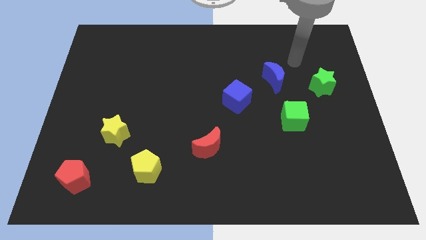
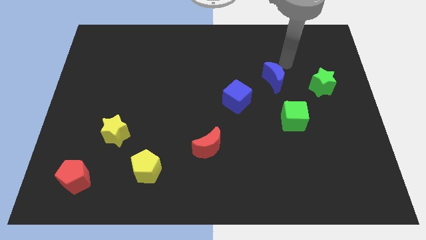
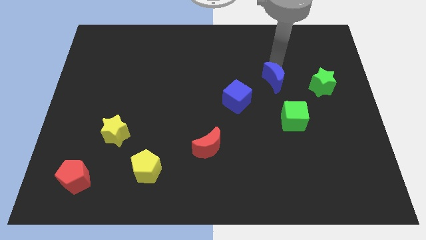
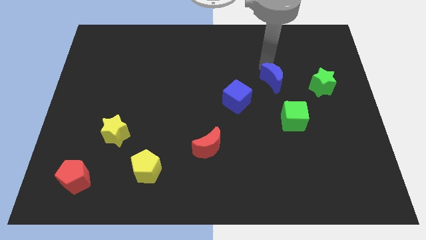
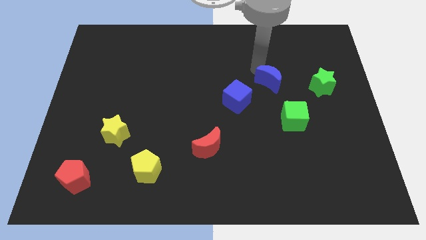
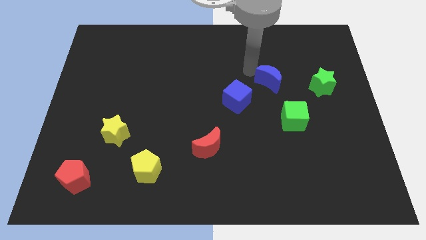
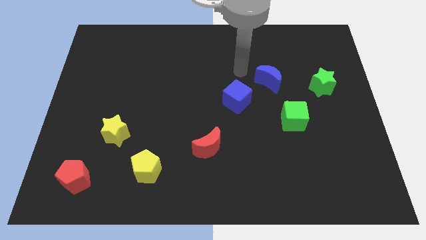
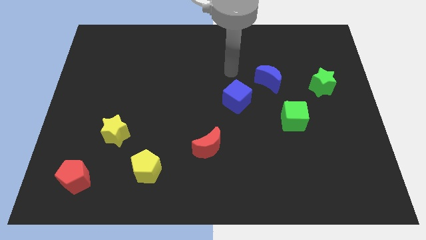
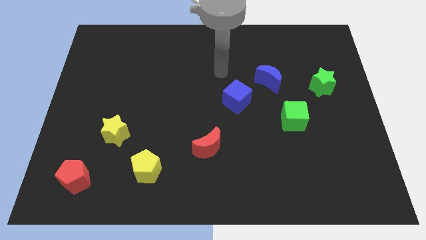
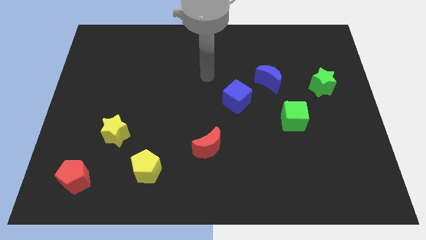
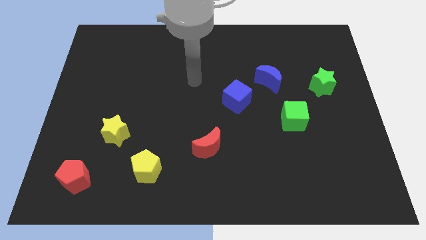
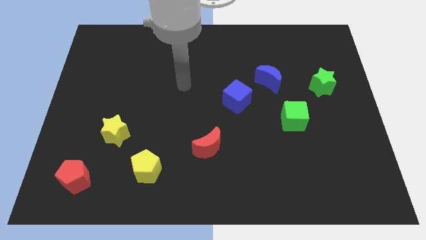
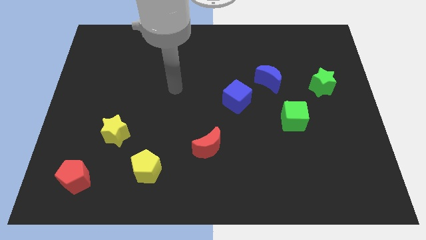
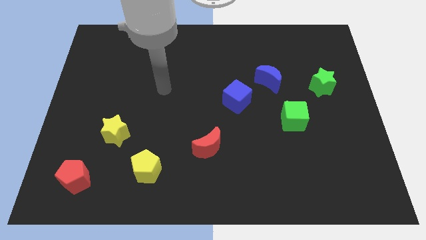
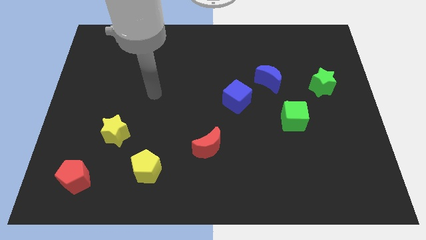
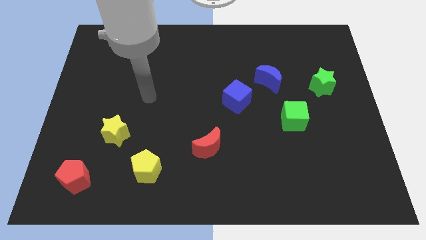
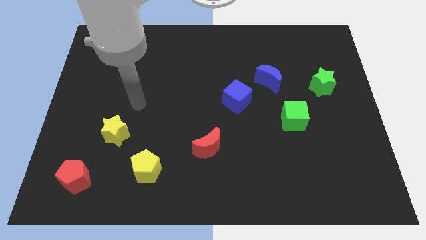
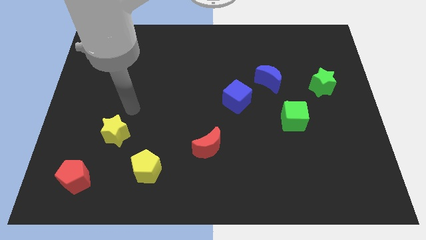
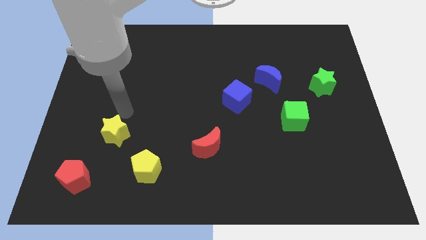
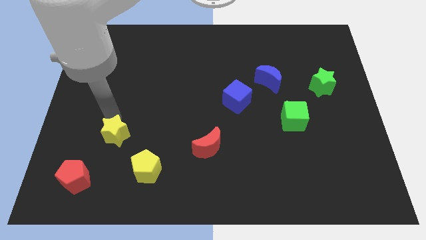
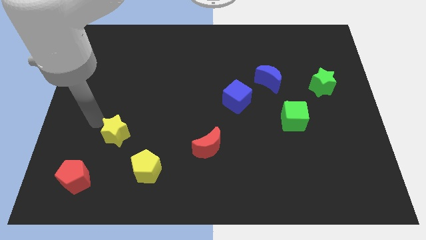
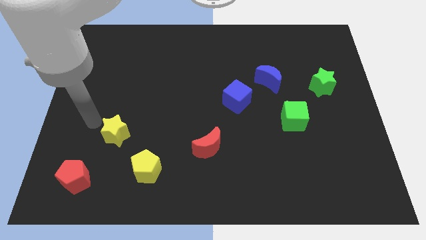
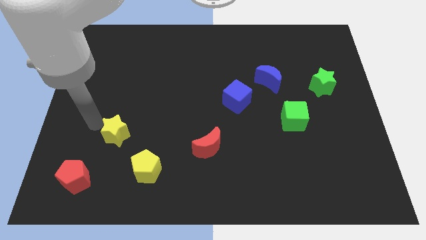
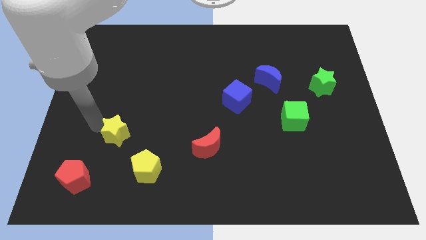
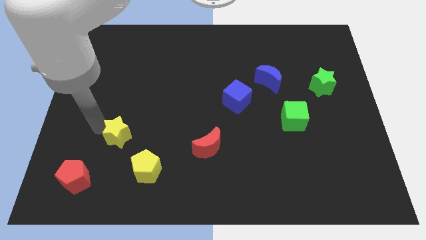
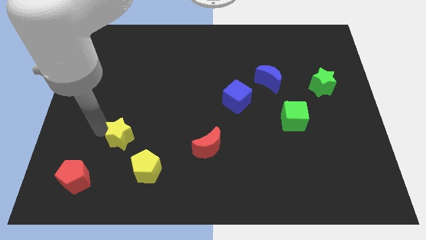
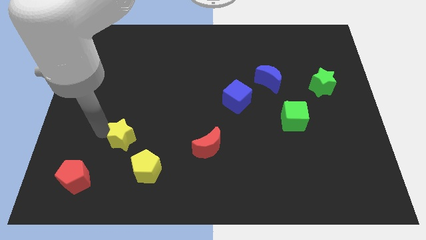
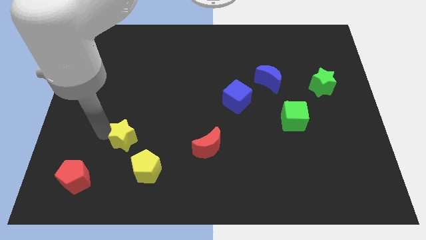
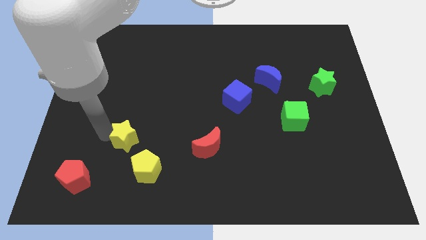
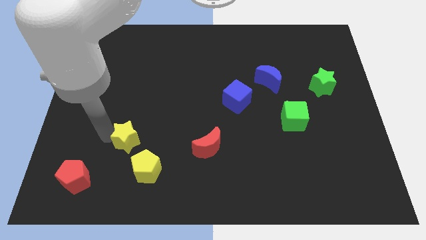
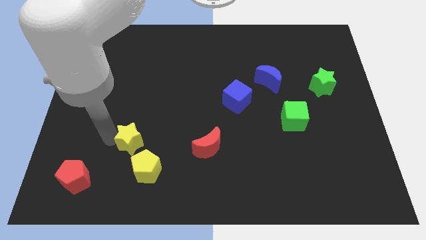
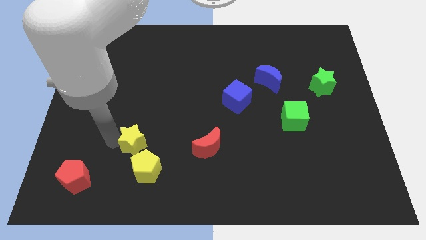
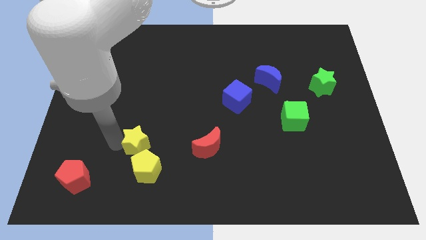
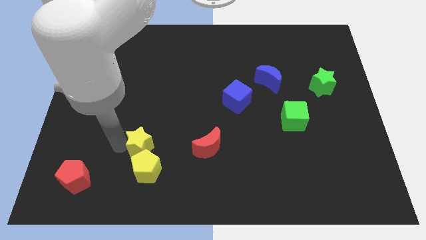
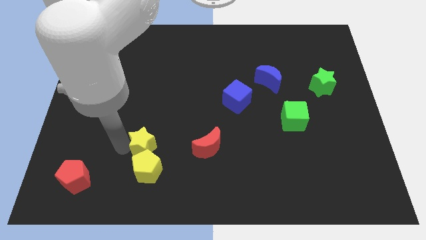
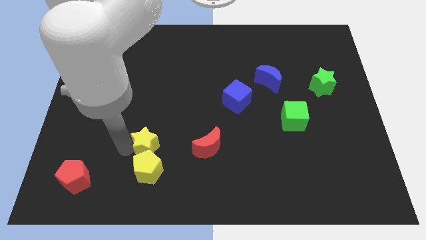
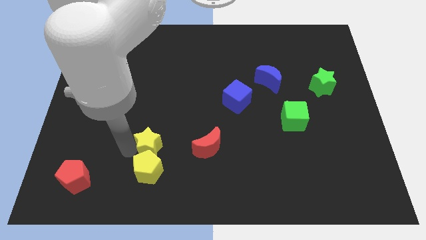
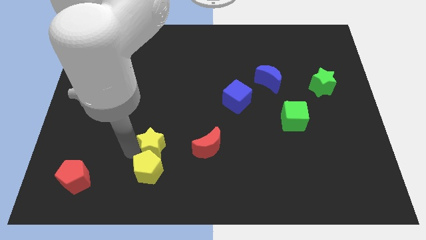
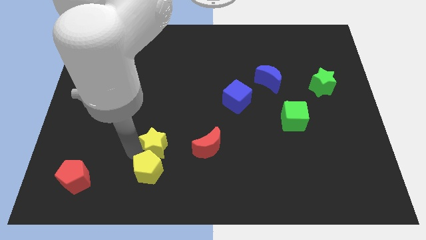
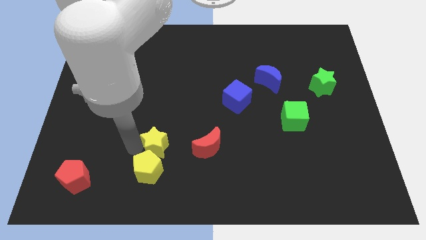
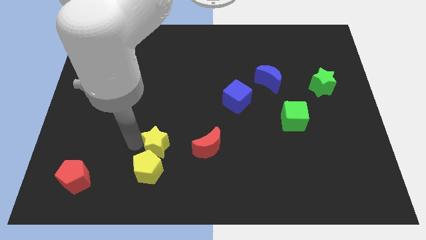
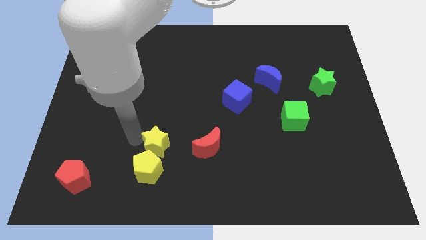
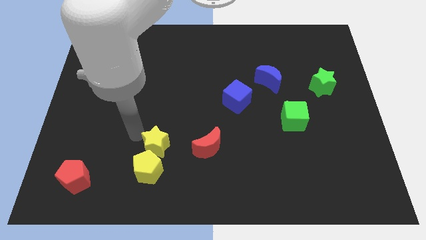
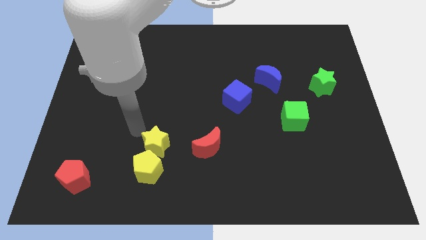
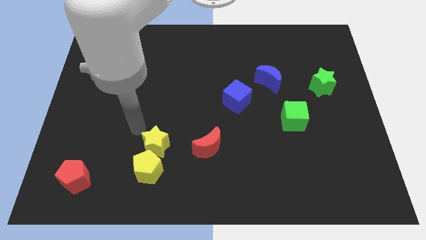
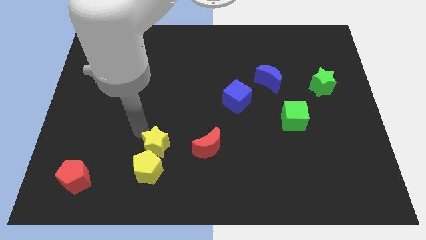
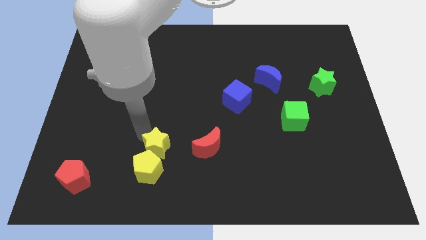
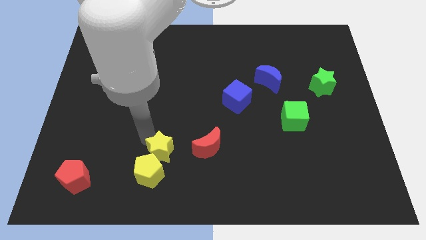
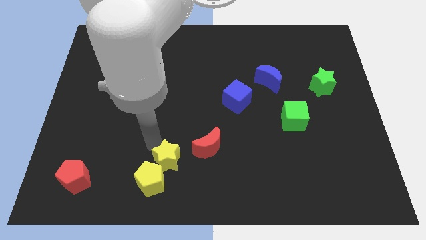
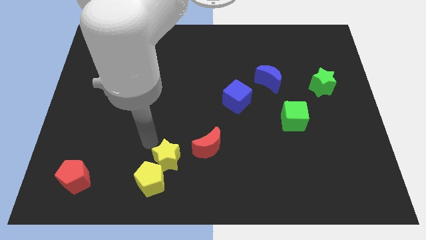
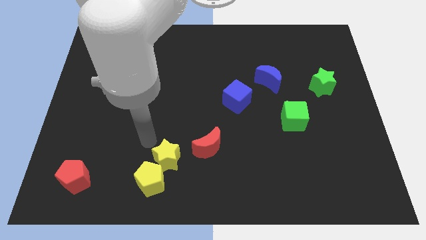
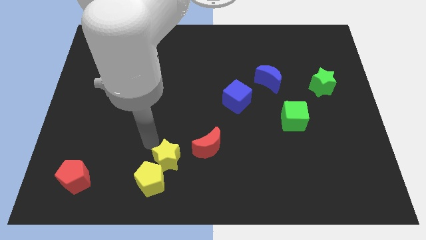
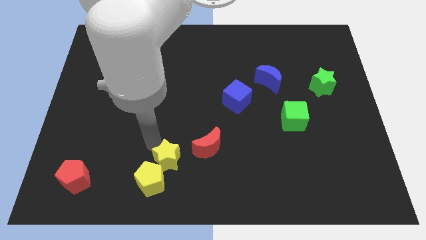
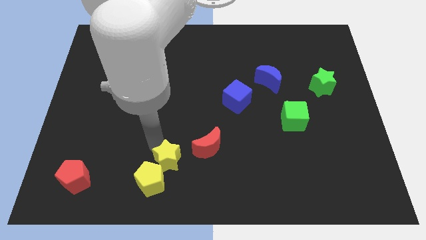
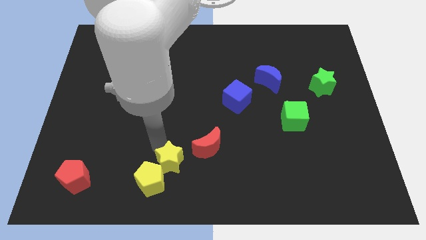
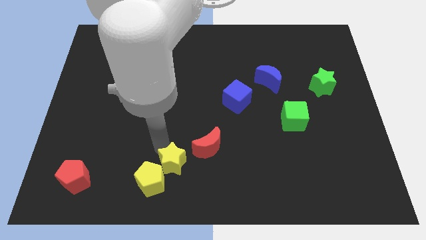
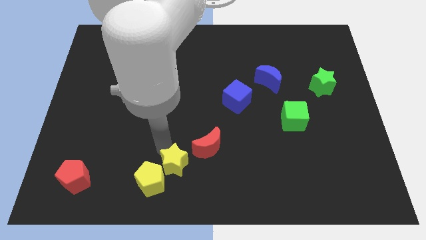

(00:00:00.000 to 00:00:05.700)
move the yellow star to the bottom side

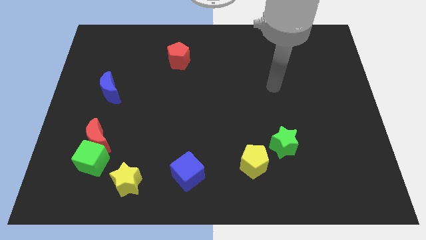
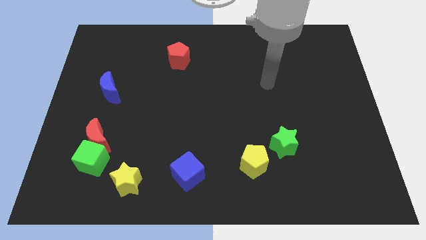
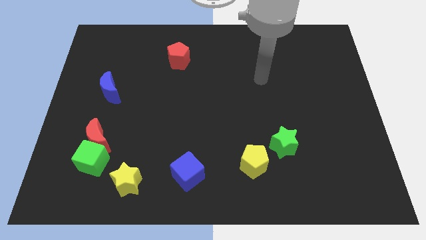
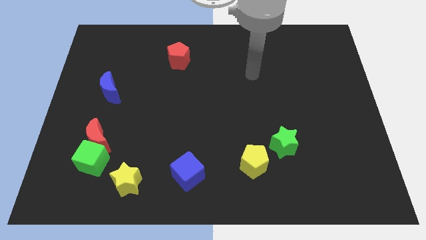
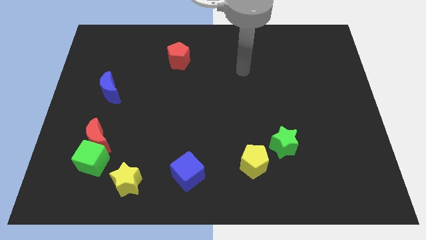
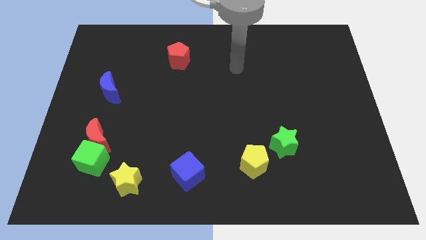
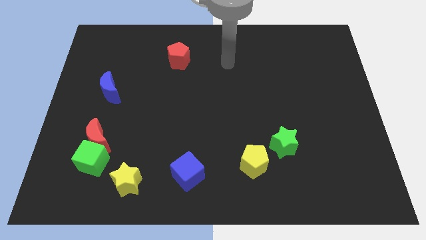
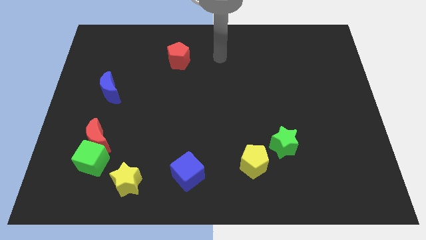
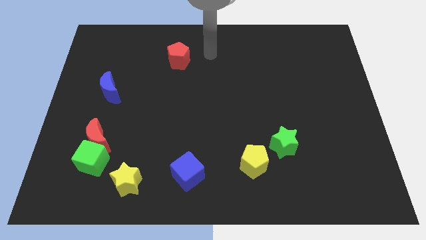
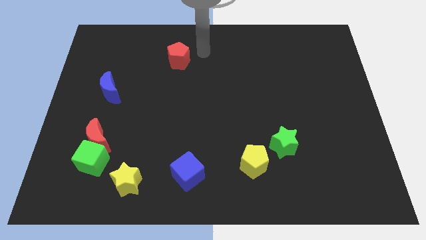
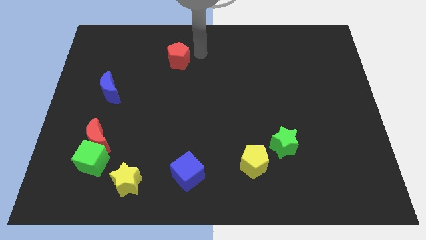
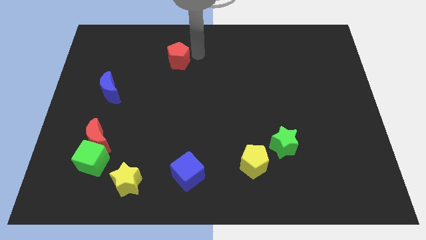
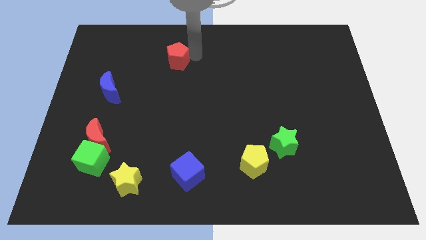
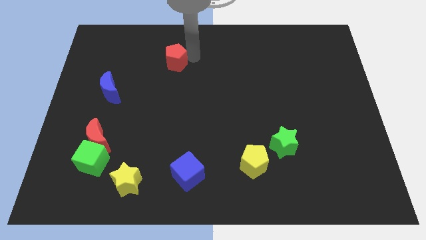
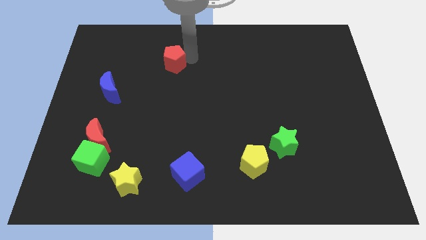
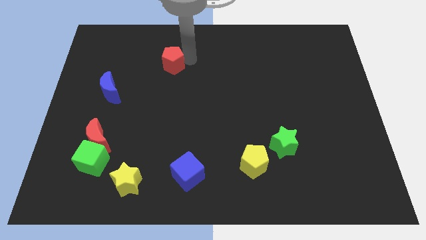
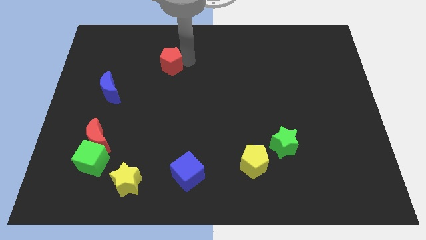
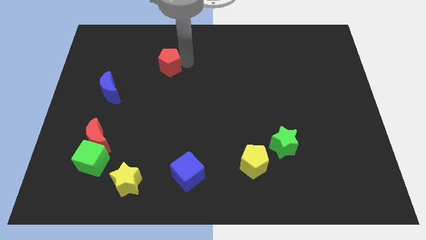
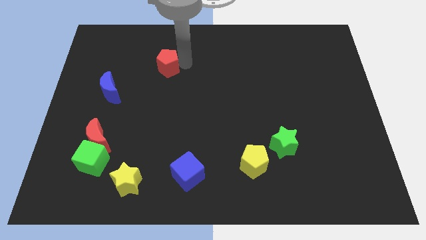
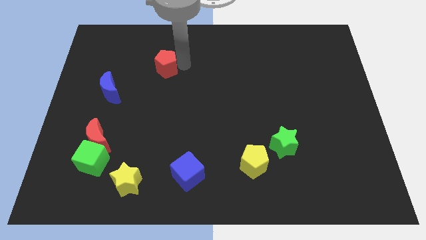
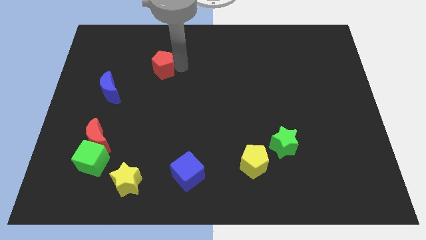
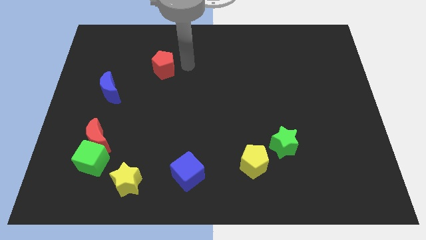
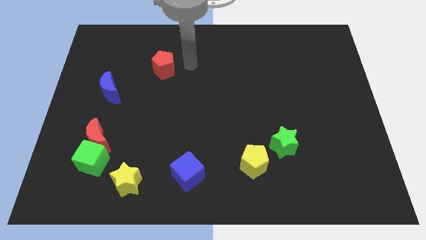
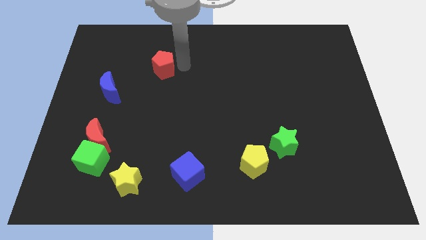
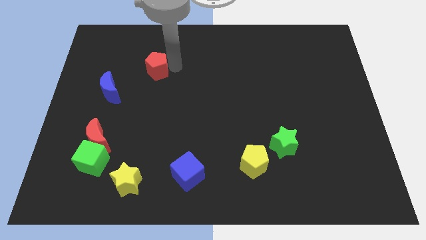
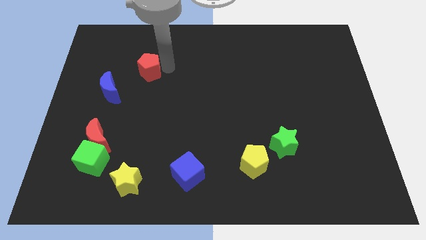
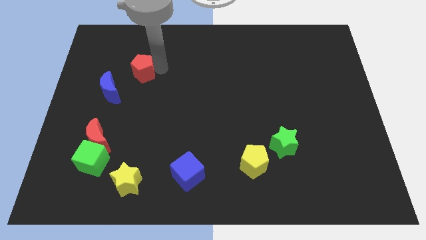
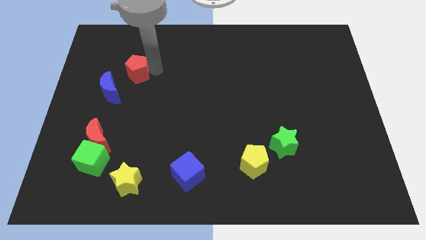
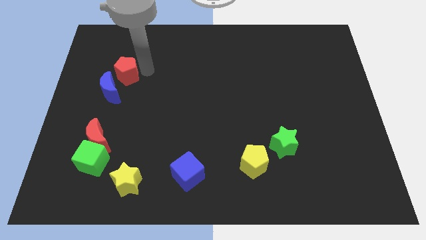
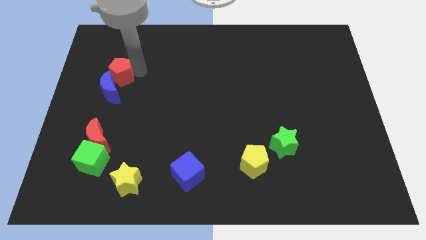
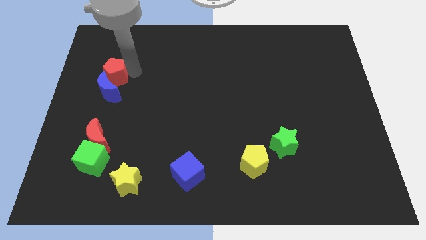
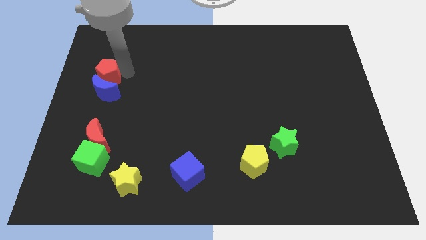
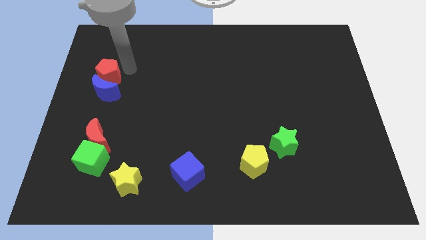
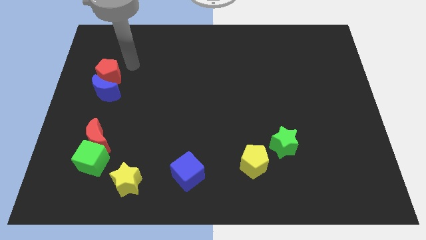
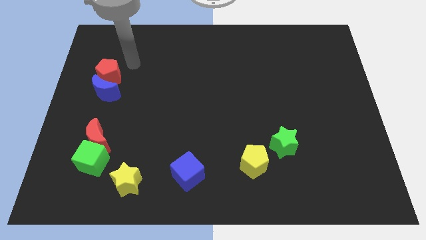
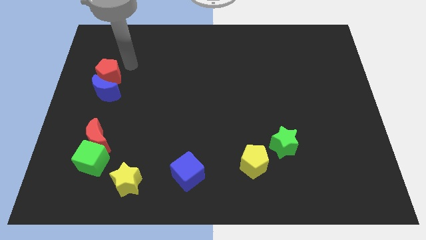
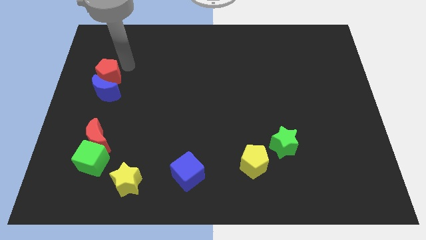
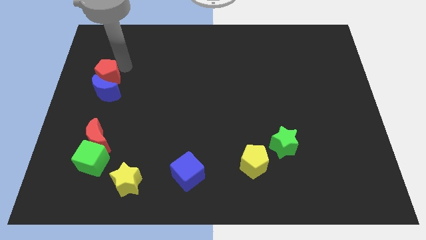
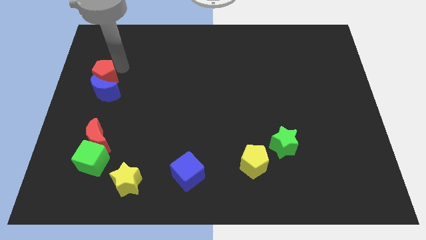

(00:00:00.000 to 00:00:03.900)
push the red pentagon to the center left
